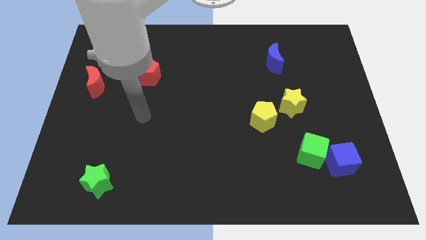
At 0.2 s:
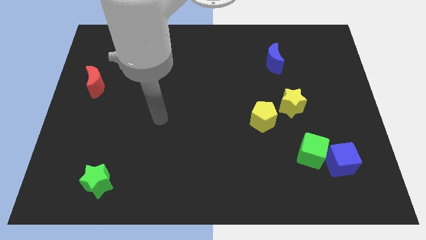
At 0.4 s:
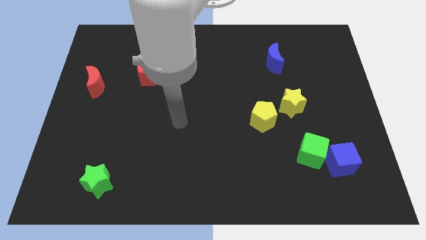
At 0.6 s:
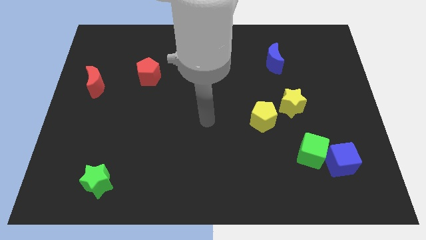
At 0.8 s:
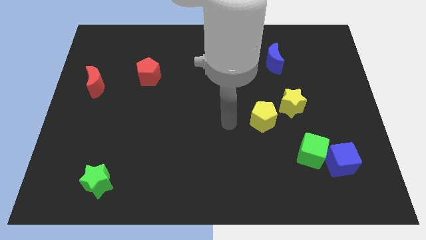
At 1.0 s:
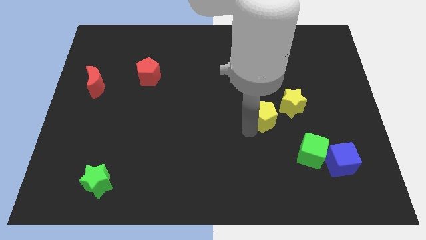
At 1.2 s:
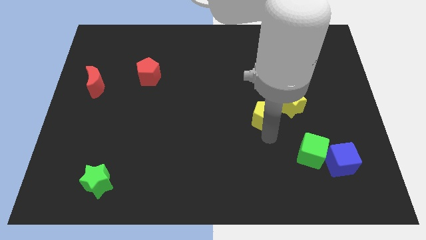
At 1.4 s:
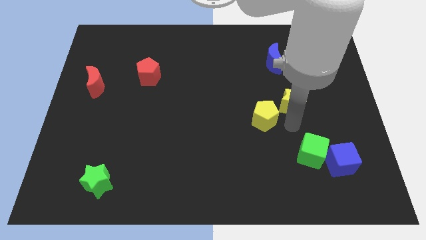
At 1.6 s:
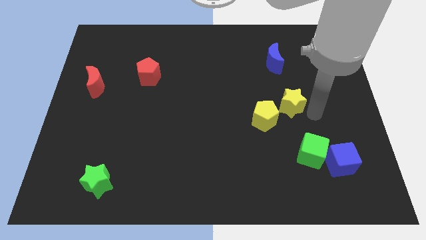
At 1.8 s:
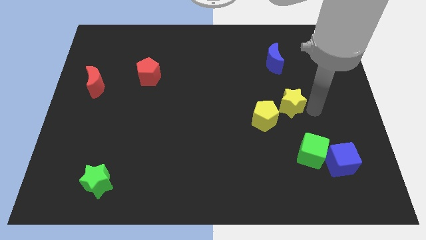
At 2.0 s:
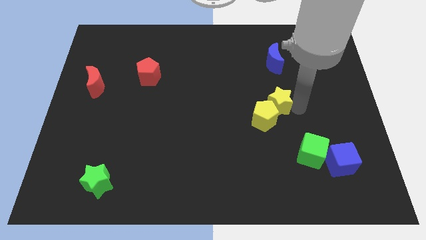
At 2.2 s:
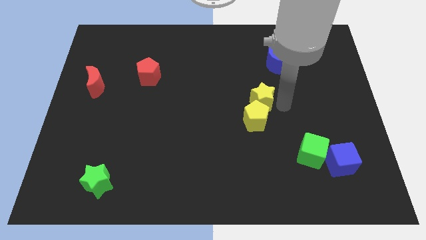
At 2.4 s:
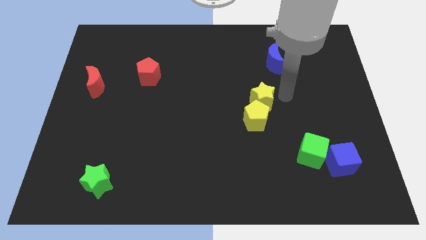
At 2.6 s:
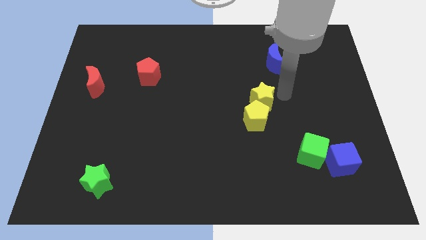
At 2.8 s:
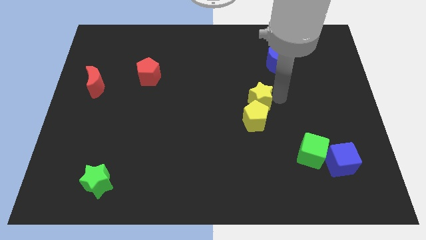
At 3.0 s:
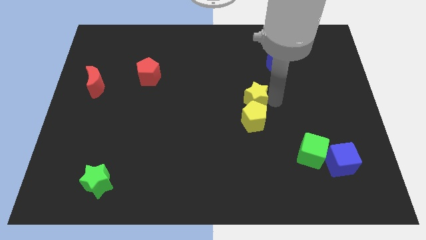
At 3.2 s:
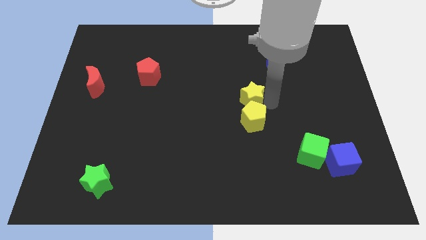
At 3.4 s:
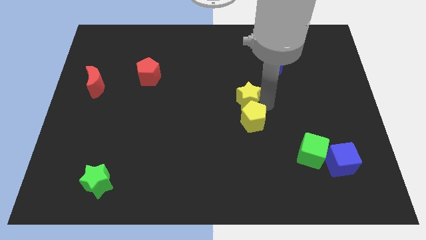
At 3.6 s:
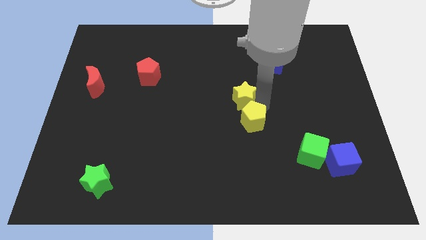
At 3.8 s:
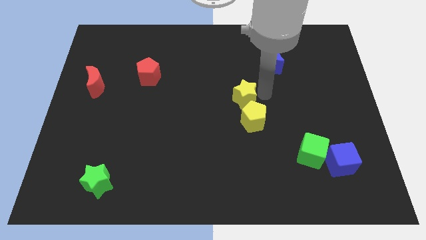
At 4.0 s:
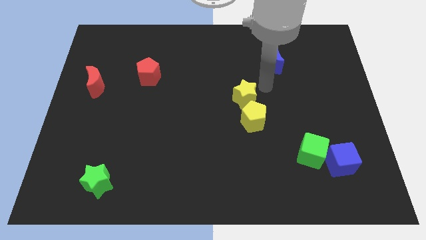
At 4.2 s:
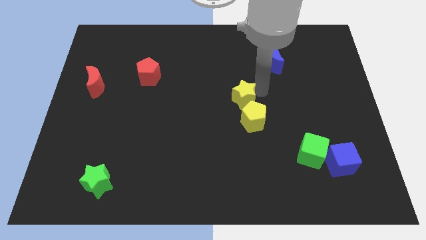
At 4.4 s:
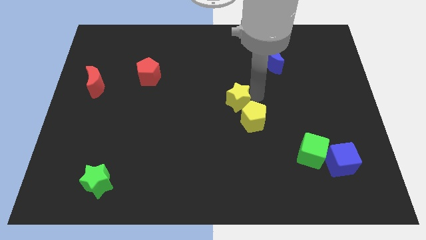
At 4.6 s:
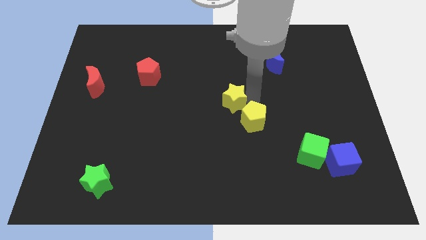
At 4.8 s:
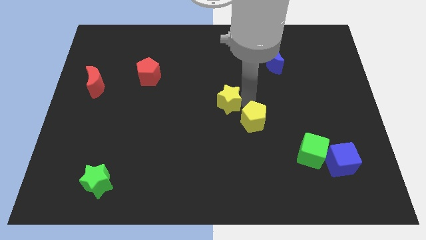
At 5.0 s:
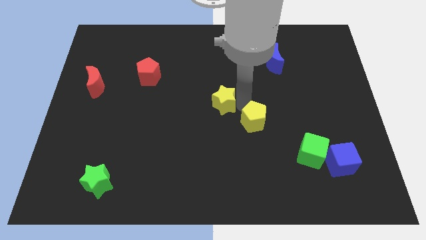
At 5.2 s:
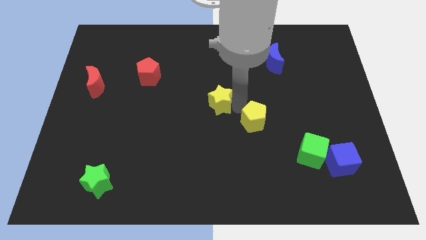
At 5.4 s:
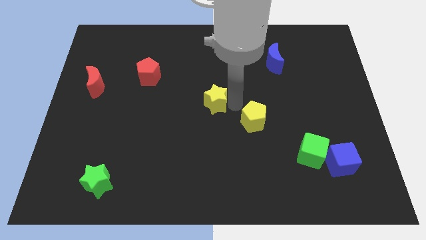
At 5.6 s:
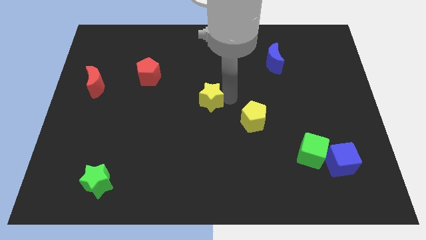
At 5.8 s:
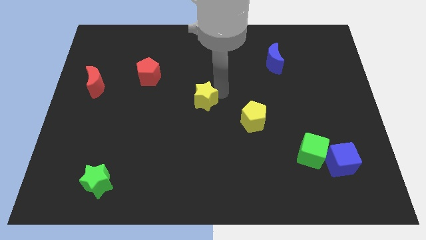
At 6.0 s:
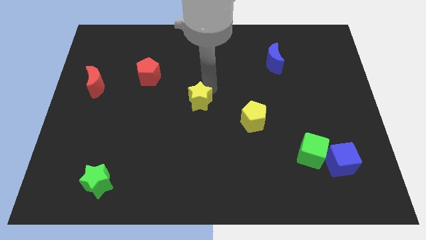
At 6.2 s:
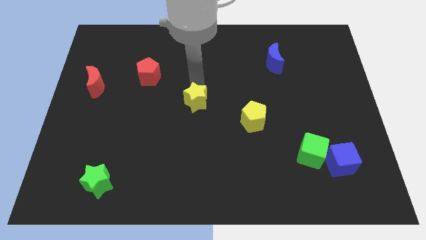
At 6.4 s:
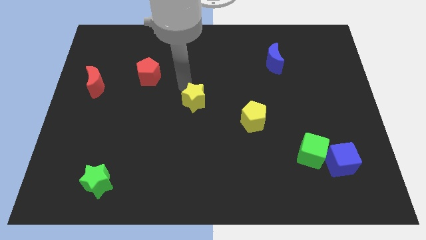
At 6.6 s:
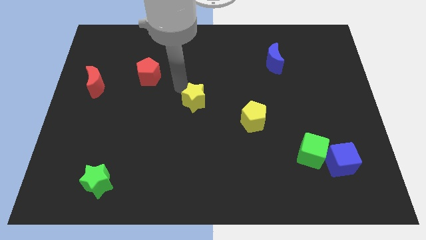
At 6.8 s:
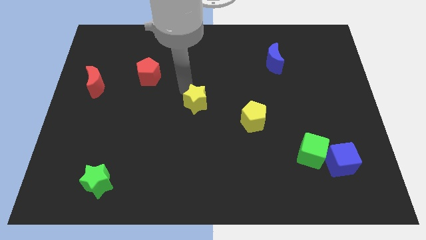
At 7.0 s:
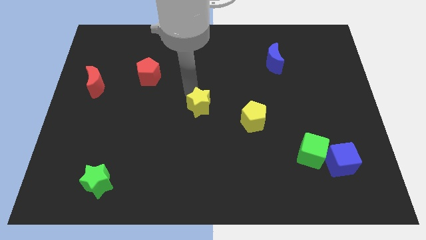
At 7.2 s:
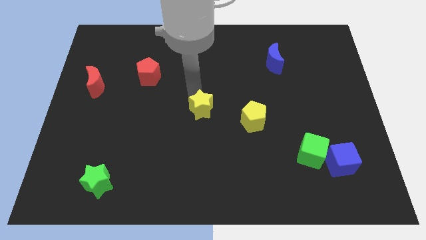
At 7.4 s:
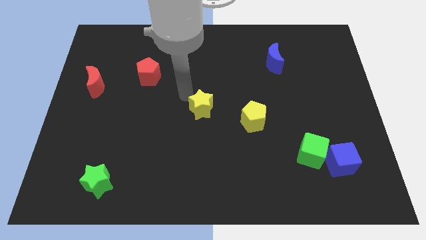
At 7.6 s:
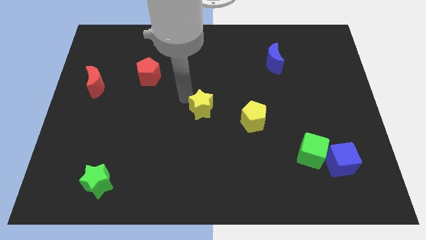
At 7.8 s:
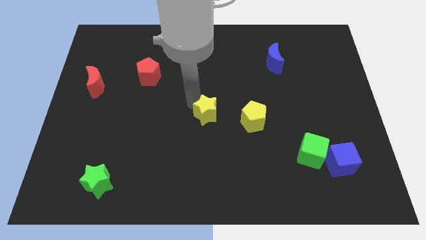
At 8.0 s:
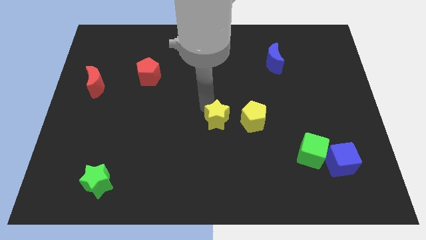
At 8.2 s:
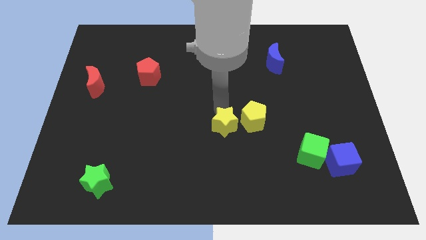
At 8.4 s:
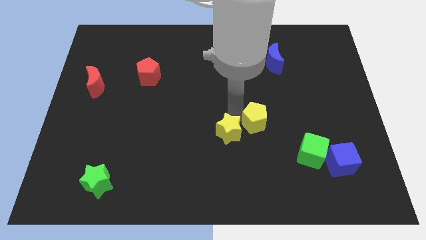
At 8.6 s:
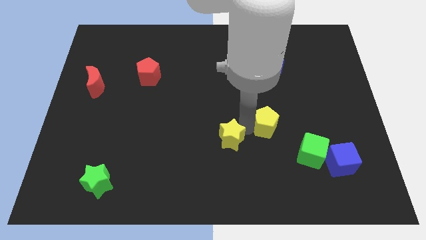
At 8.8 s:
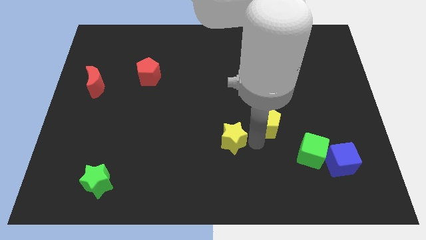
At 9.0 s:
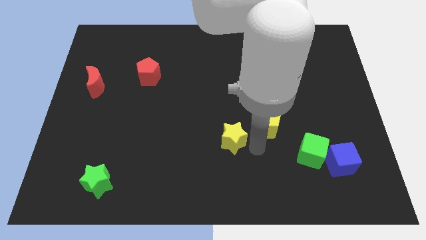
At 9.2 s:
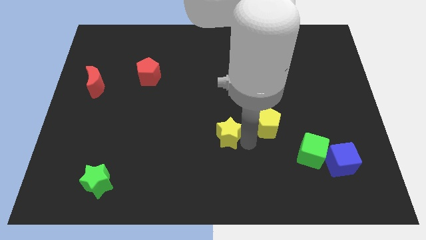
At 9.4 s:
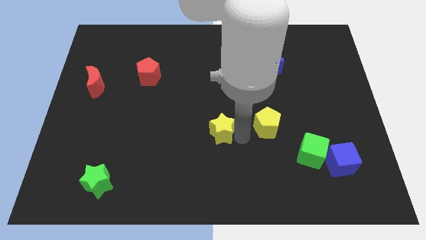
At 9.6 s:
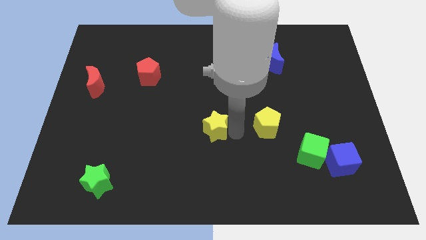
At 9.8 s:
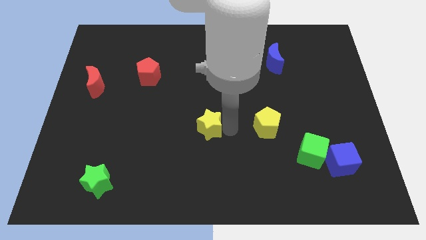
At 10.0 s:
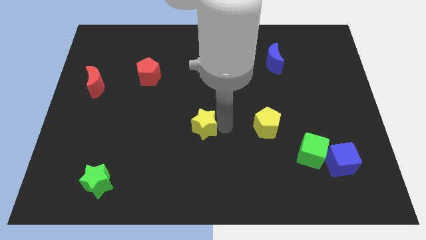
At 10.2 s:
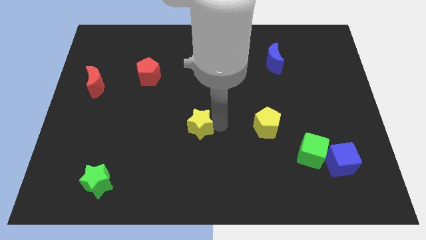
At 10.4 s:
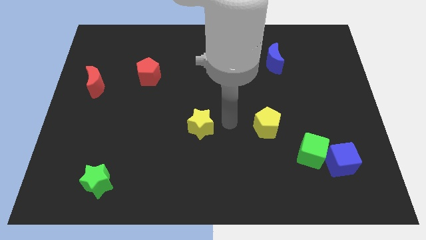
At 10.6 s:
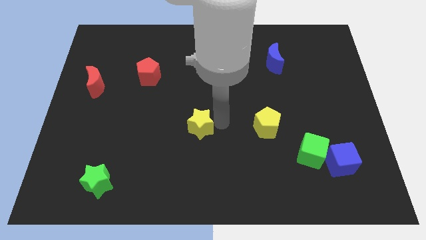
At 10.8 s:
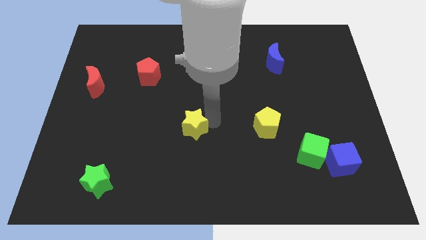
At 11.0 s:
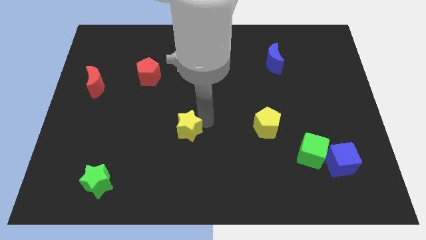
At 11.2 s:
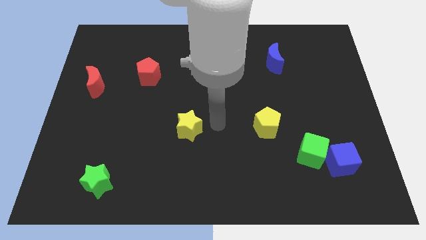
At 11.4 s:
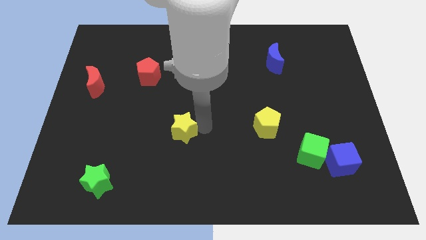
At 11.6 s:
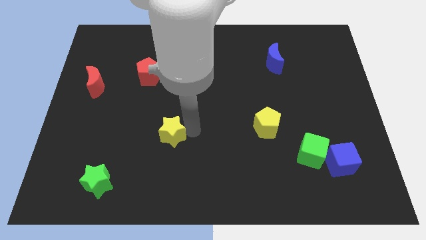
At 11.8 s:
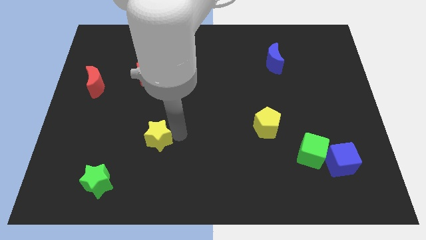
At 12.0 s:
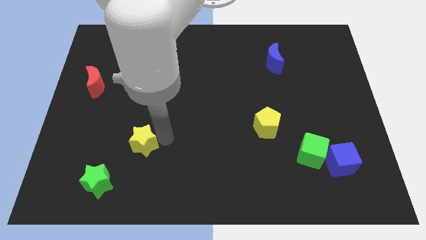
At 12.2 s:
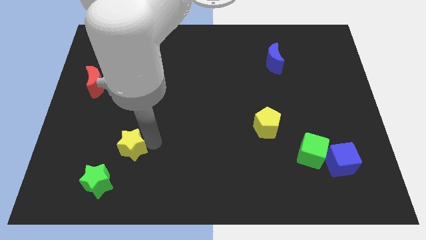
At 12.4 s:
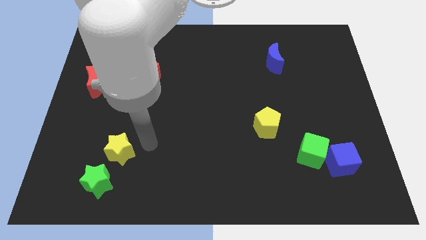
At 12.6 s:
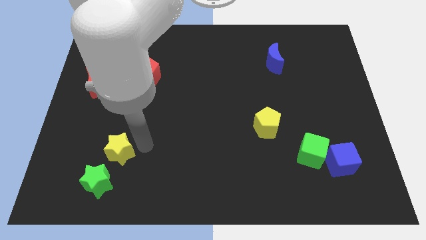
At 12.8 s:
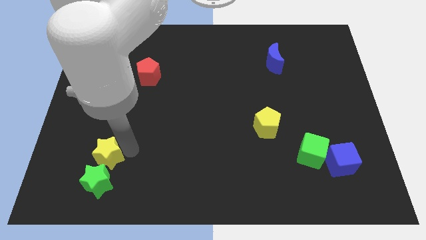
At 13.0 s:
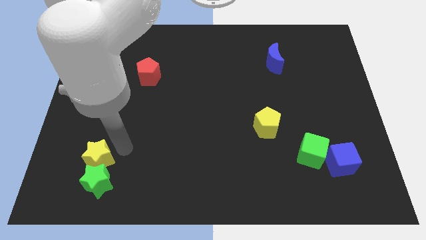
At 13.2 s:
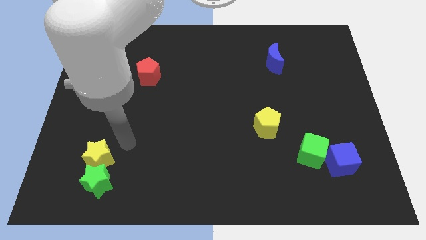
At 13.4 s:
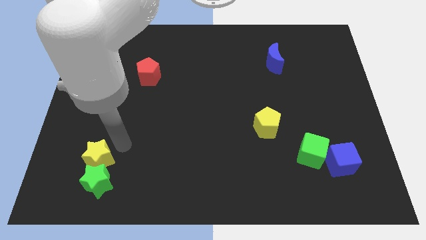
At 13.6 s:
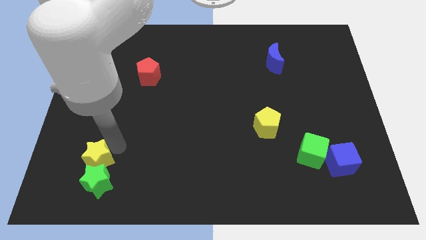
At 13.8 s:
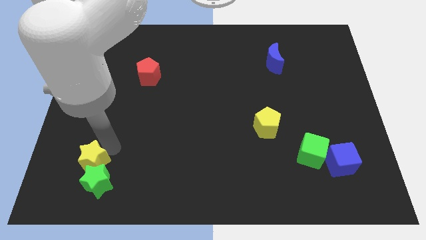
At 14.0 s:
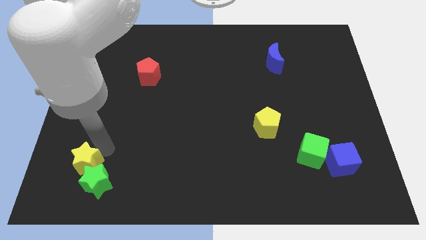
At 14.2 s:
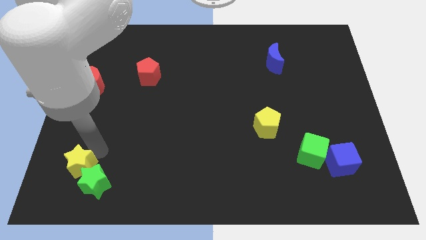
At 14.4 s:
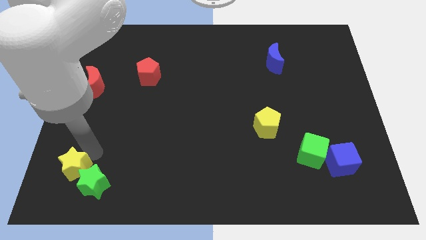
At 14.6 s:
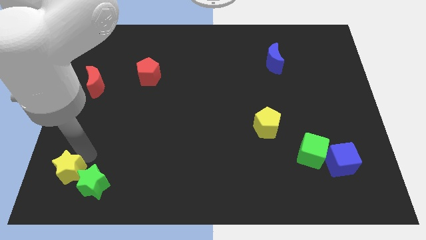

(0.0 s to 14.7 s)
push the yellow star to the bottom left of the board
